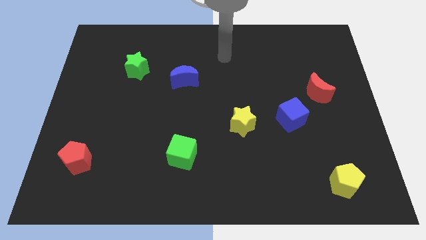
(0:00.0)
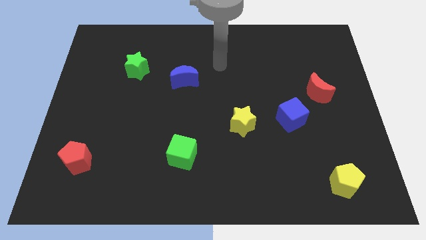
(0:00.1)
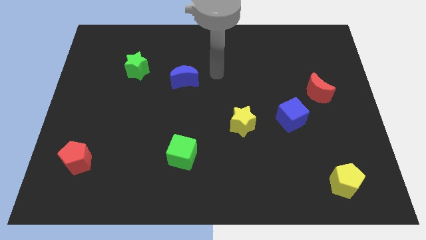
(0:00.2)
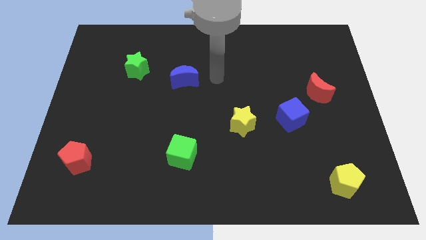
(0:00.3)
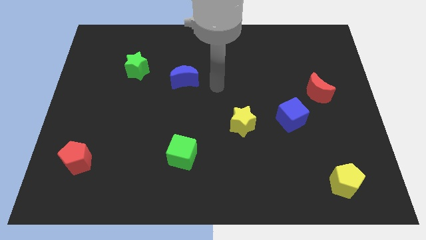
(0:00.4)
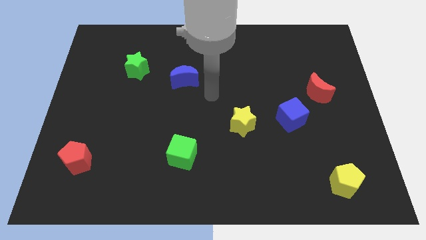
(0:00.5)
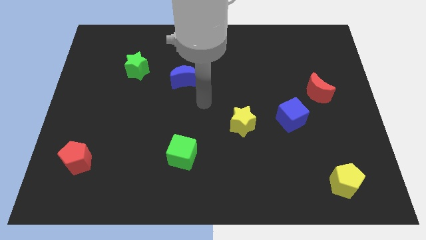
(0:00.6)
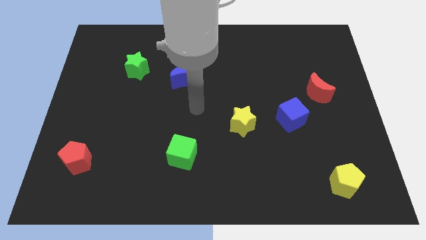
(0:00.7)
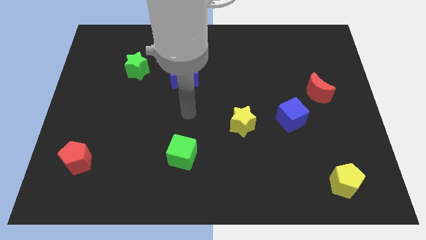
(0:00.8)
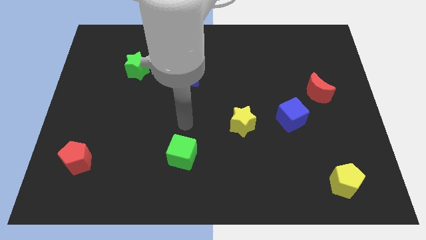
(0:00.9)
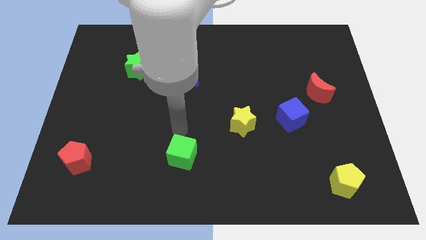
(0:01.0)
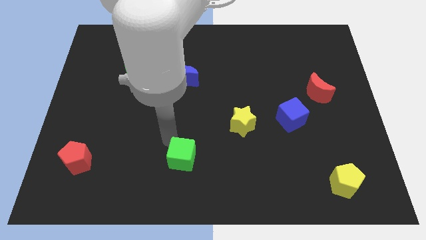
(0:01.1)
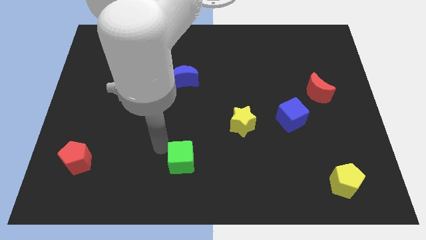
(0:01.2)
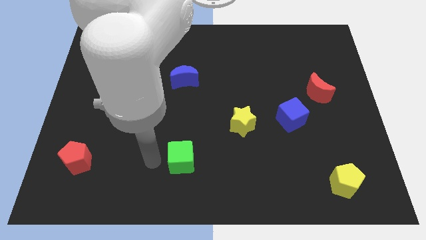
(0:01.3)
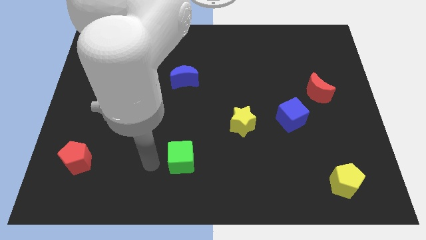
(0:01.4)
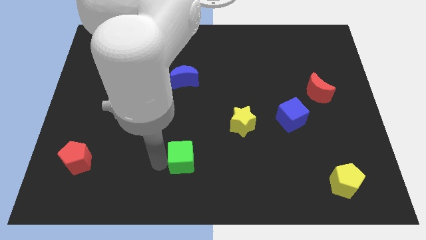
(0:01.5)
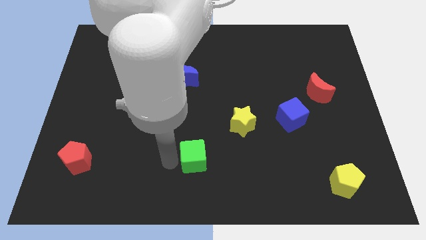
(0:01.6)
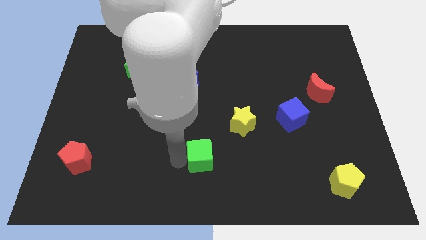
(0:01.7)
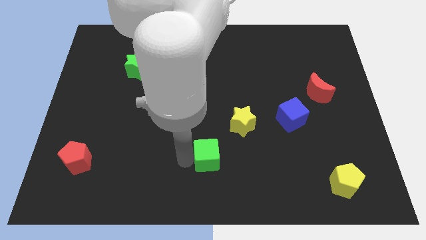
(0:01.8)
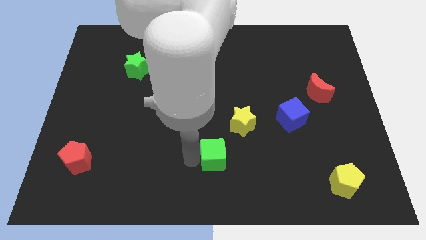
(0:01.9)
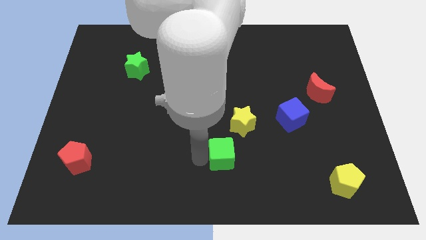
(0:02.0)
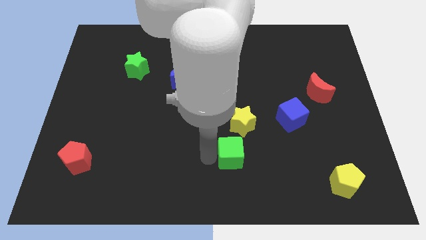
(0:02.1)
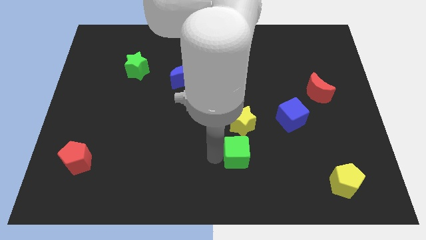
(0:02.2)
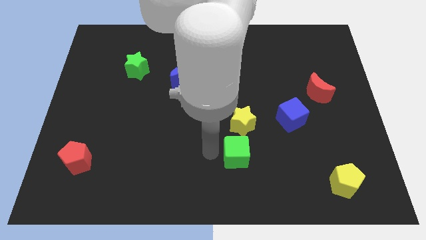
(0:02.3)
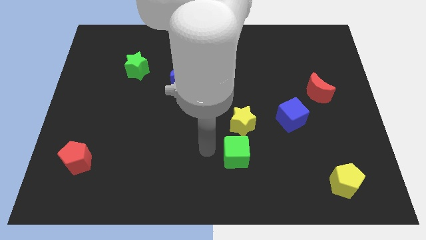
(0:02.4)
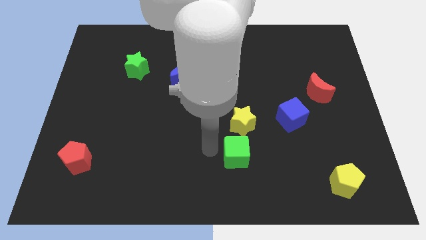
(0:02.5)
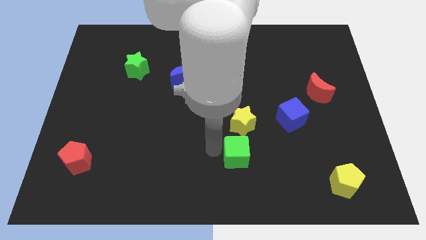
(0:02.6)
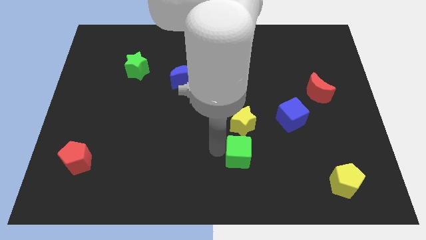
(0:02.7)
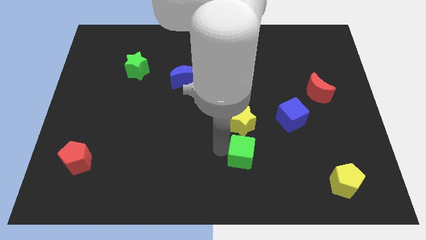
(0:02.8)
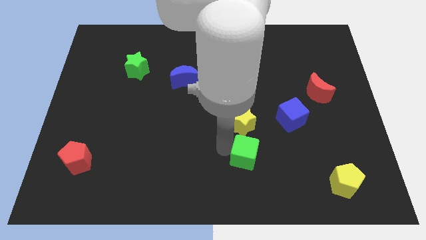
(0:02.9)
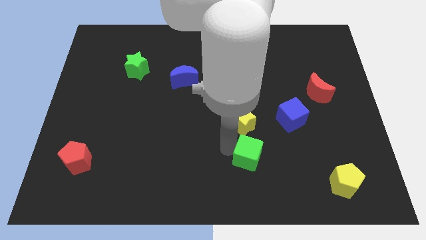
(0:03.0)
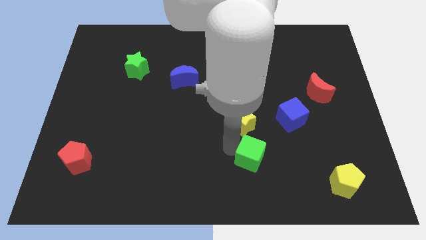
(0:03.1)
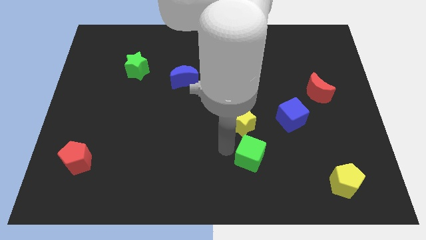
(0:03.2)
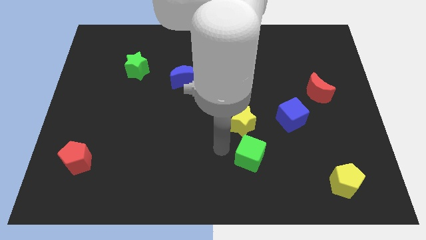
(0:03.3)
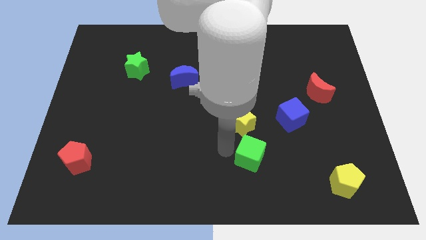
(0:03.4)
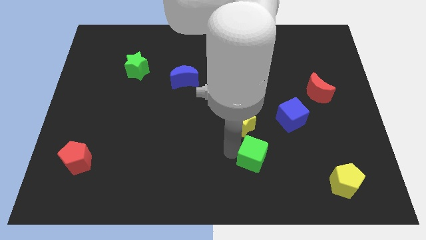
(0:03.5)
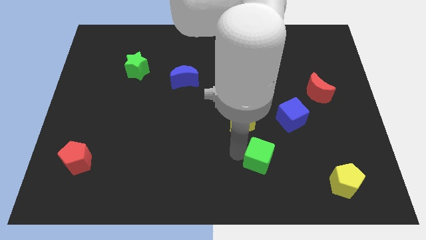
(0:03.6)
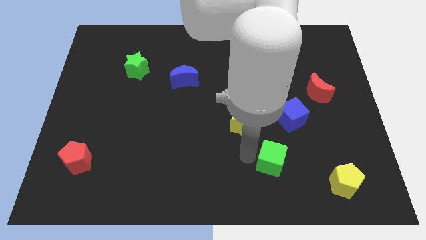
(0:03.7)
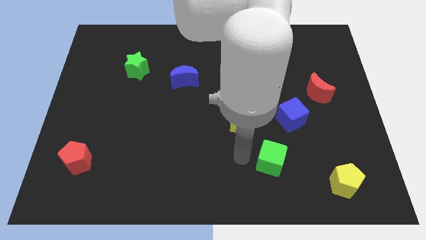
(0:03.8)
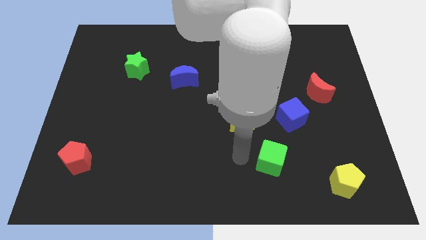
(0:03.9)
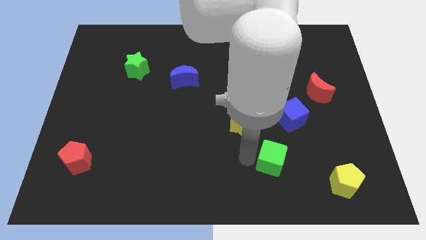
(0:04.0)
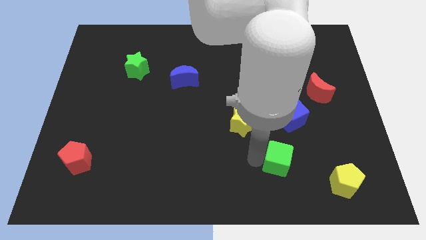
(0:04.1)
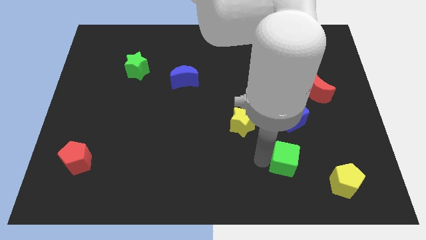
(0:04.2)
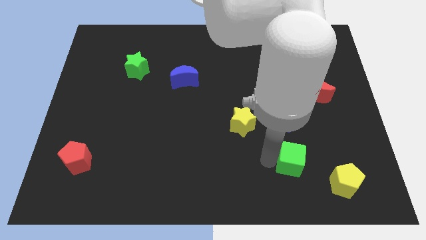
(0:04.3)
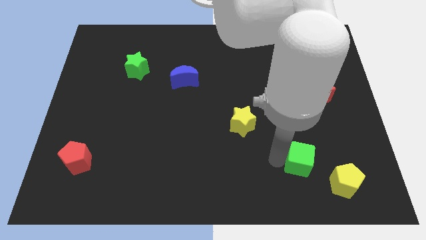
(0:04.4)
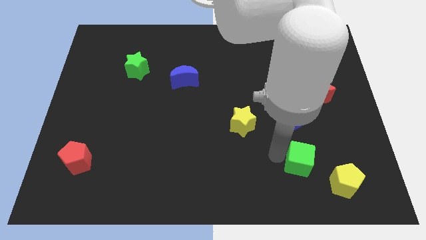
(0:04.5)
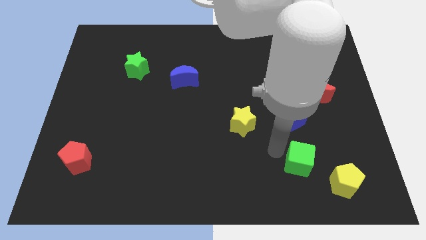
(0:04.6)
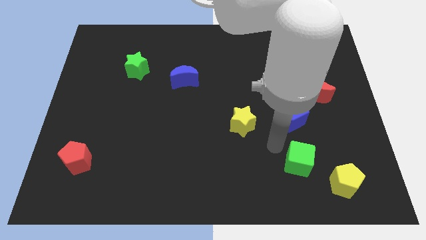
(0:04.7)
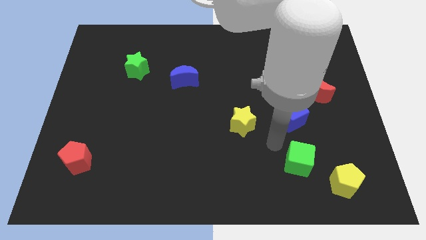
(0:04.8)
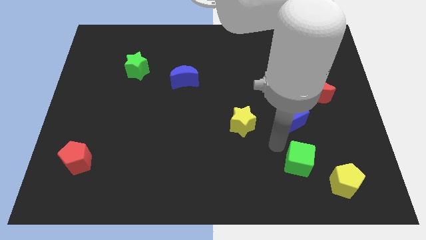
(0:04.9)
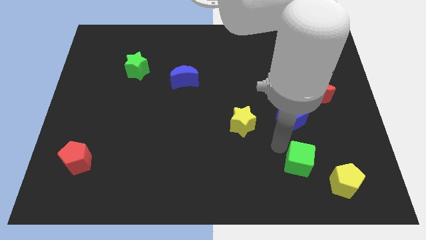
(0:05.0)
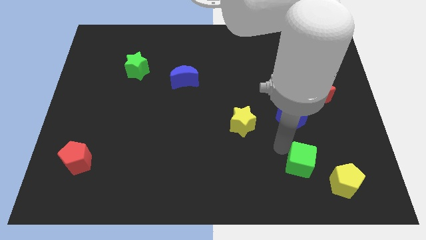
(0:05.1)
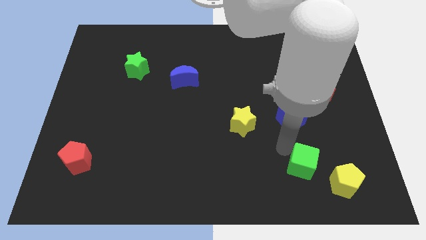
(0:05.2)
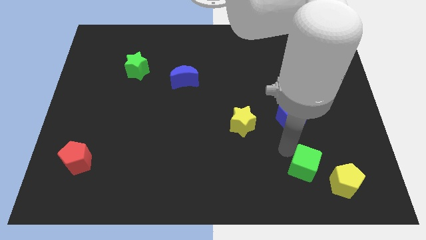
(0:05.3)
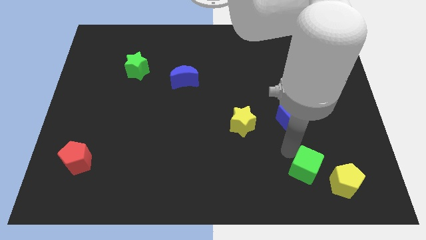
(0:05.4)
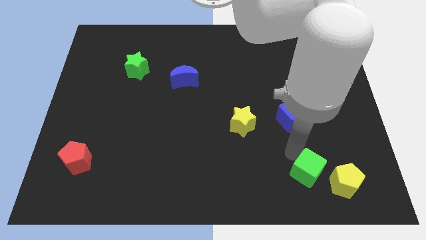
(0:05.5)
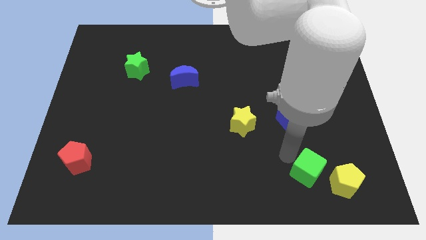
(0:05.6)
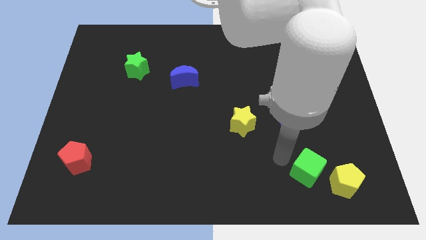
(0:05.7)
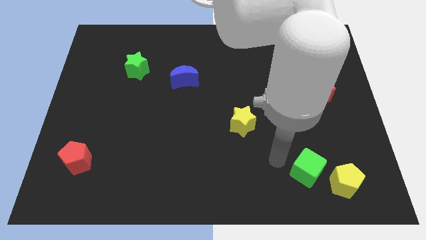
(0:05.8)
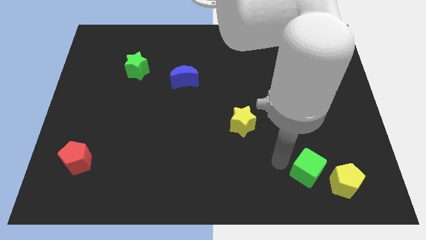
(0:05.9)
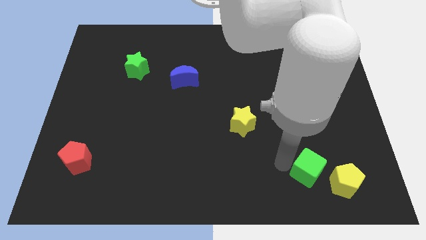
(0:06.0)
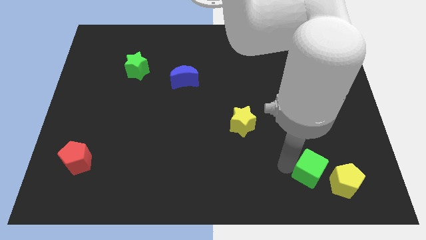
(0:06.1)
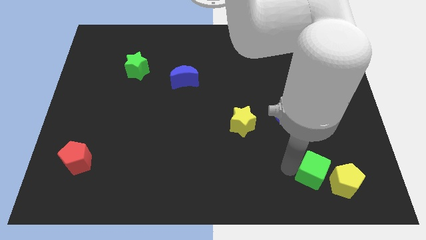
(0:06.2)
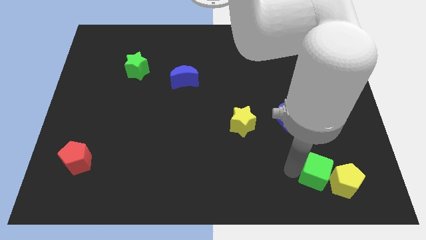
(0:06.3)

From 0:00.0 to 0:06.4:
put the green cube to the yellow pentagon
